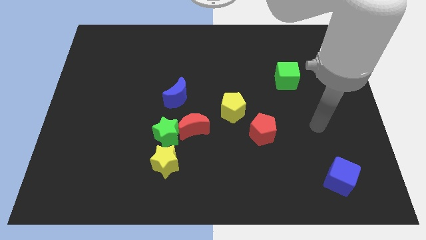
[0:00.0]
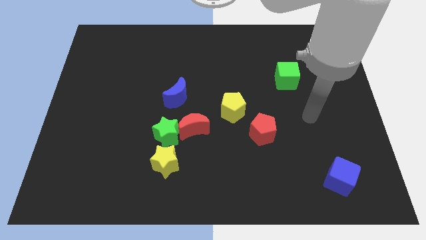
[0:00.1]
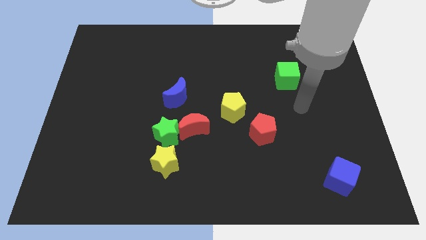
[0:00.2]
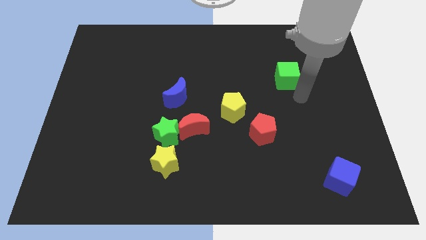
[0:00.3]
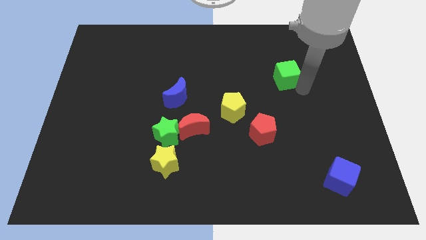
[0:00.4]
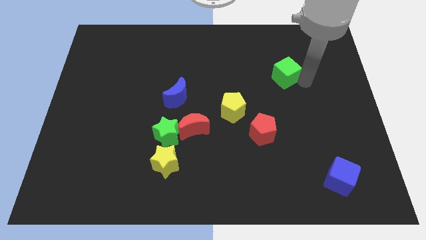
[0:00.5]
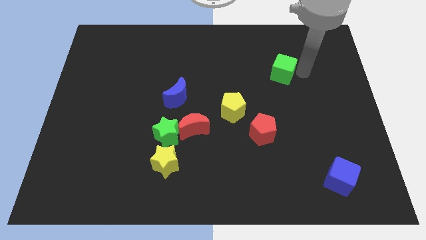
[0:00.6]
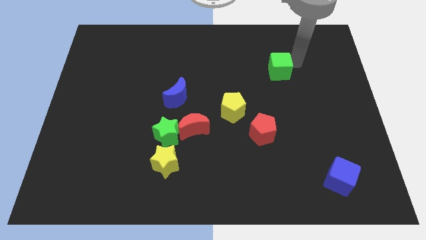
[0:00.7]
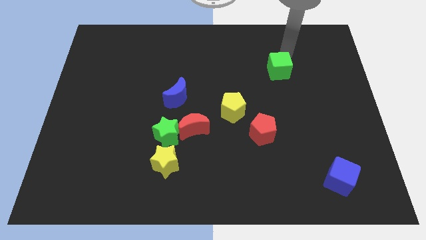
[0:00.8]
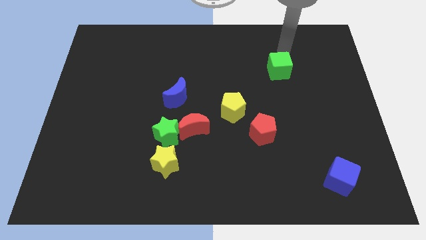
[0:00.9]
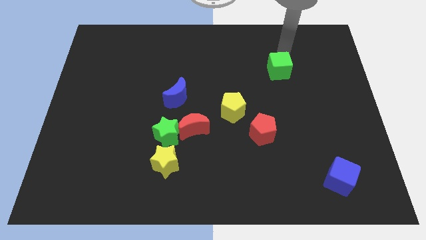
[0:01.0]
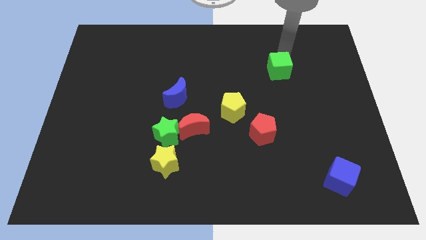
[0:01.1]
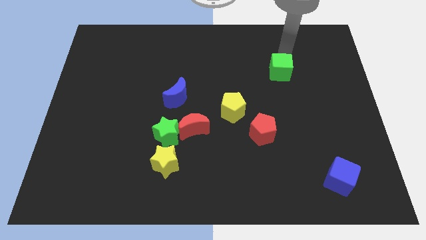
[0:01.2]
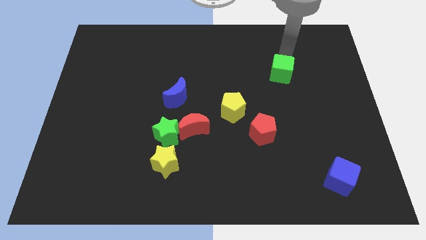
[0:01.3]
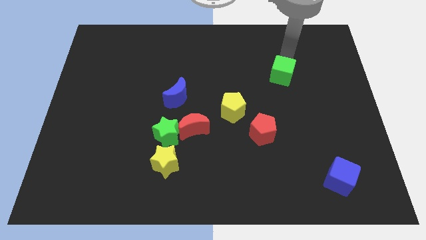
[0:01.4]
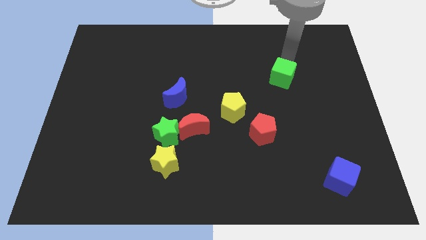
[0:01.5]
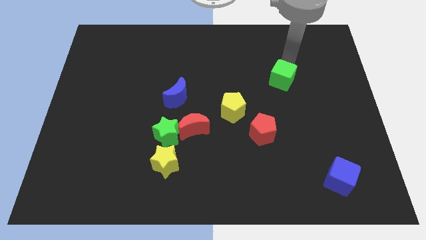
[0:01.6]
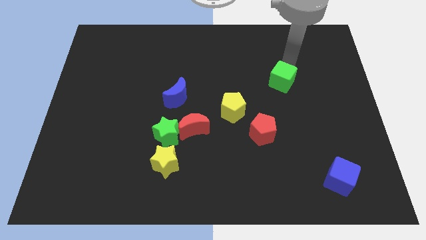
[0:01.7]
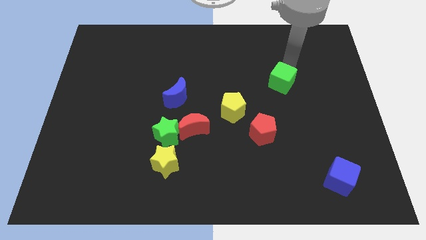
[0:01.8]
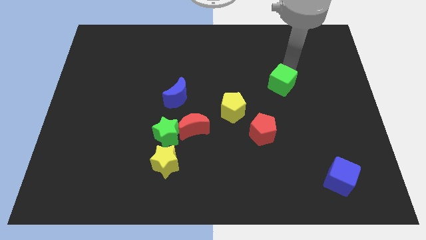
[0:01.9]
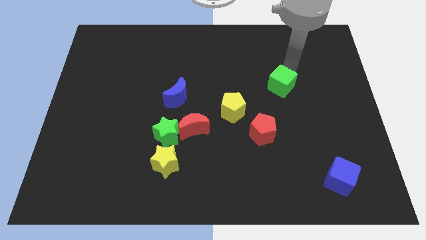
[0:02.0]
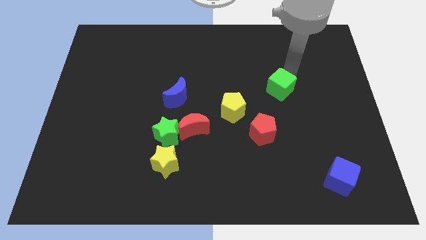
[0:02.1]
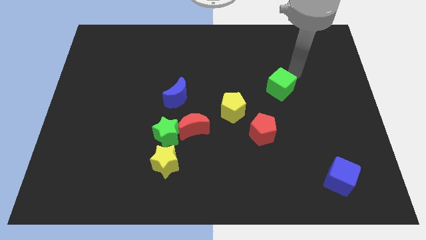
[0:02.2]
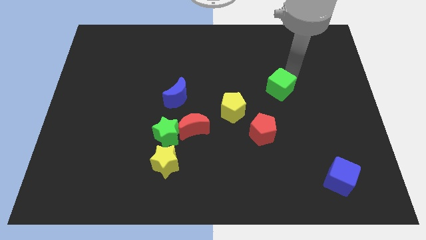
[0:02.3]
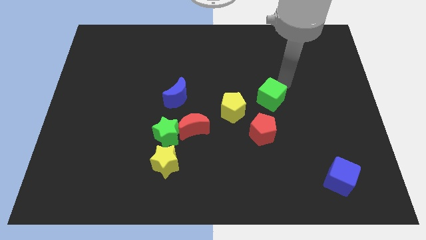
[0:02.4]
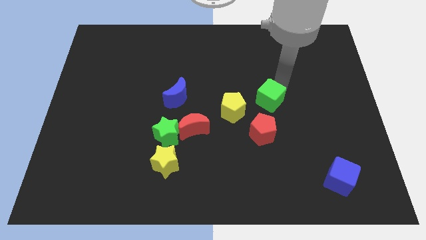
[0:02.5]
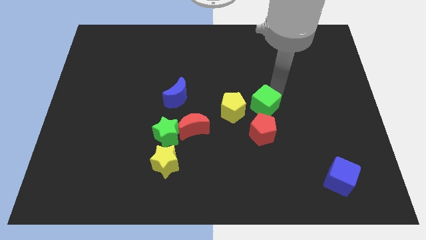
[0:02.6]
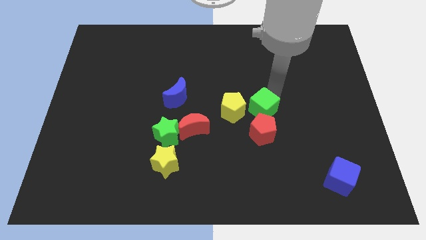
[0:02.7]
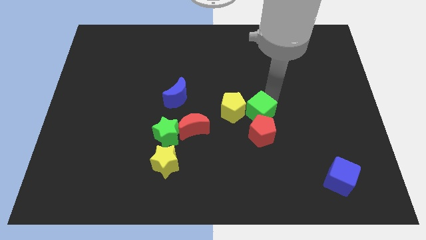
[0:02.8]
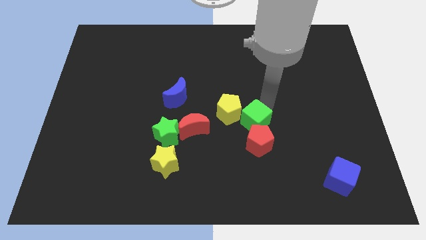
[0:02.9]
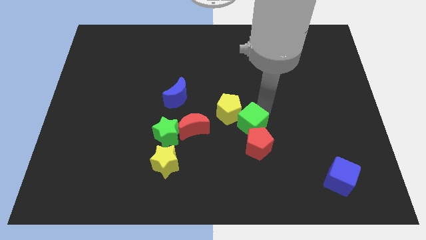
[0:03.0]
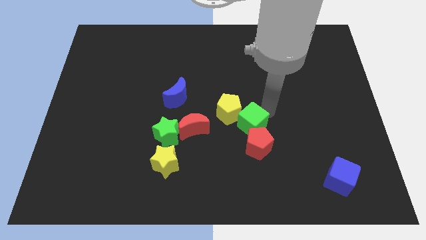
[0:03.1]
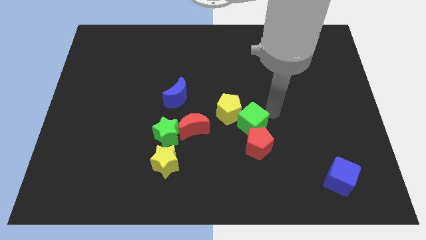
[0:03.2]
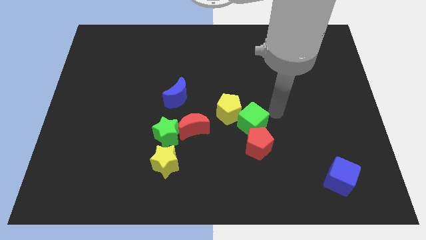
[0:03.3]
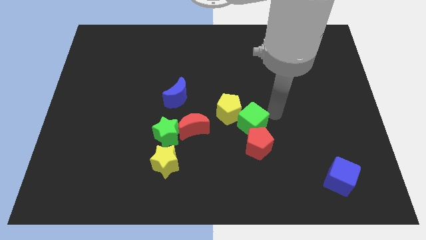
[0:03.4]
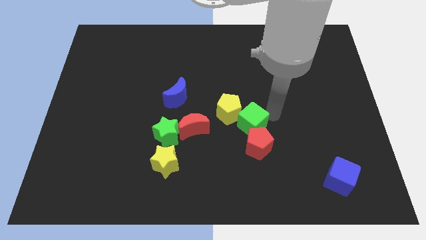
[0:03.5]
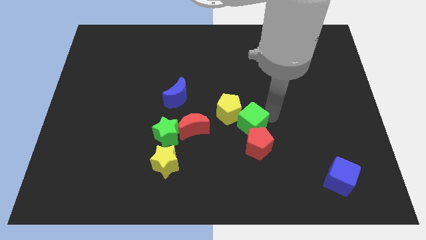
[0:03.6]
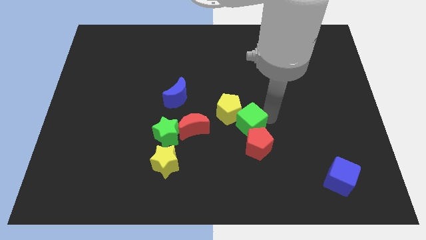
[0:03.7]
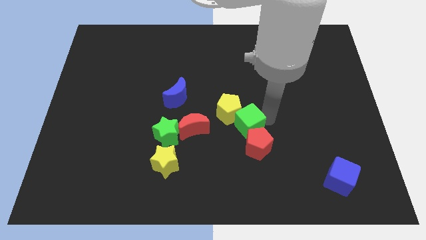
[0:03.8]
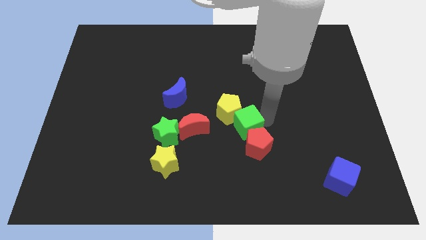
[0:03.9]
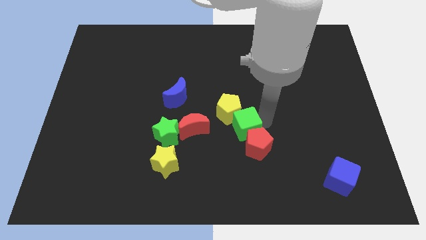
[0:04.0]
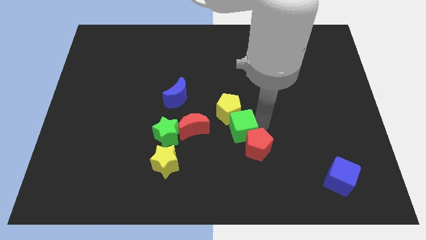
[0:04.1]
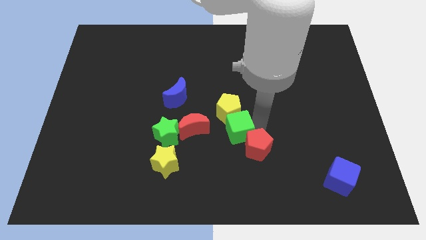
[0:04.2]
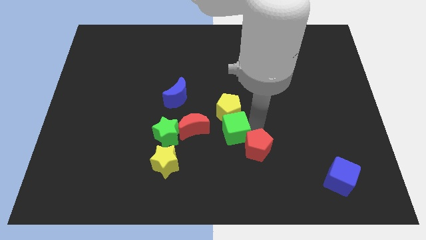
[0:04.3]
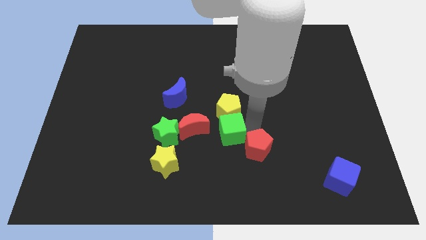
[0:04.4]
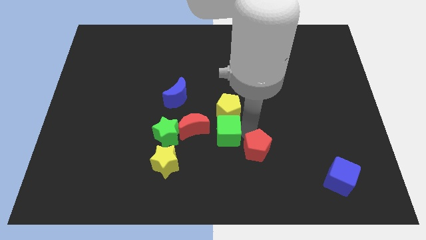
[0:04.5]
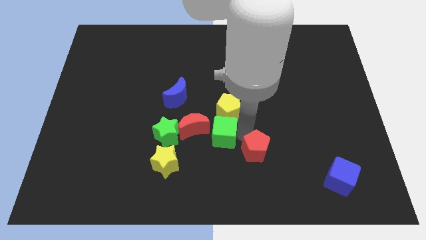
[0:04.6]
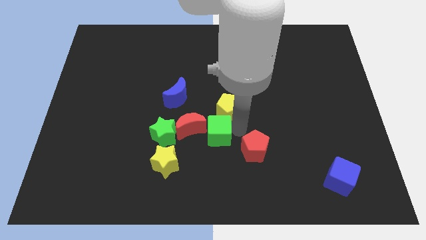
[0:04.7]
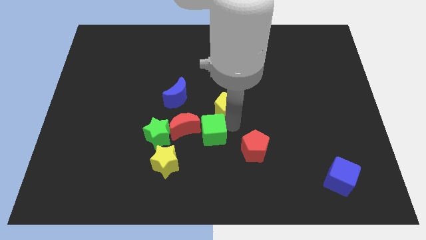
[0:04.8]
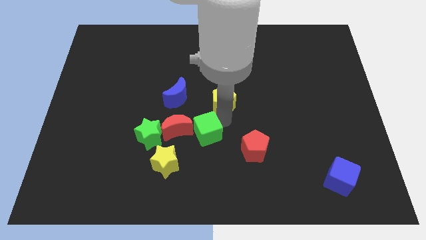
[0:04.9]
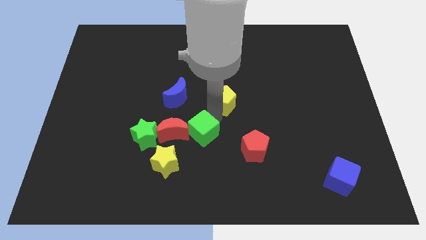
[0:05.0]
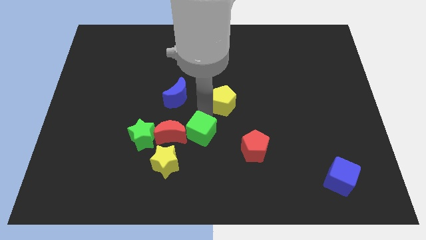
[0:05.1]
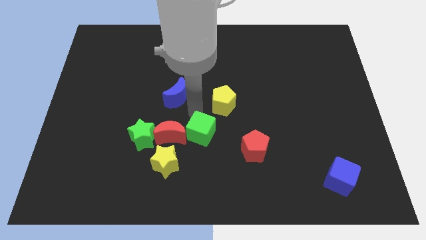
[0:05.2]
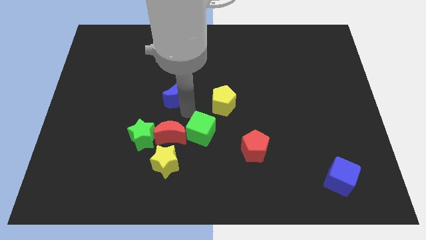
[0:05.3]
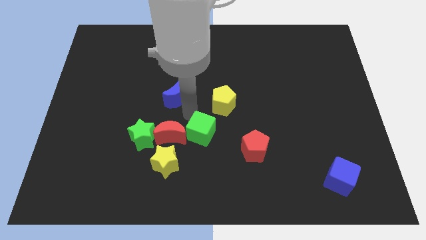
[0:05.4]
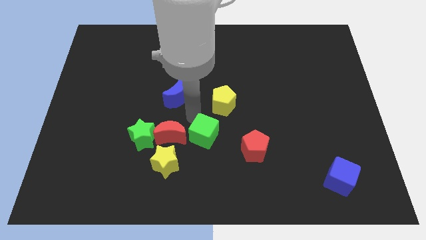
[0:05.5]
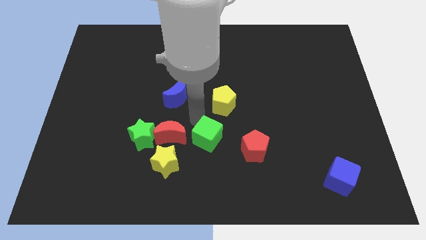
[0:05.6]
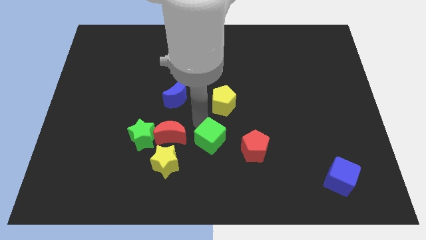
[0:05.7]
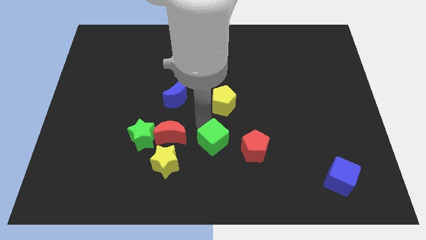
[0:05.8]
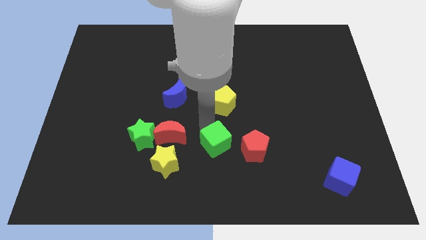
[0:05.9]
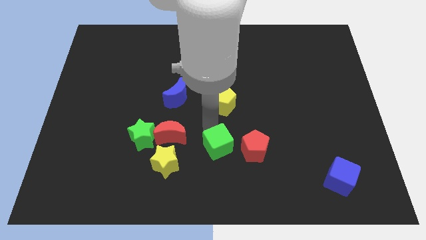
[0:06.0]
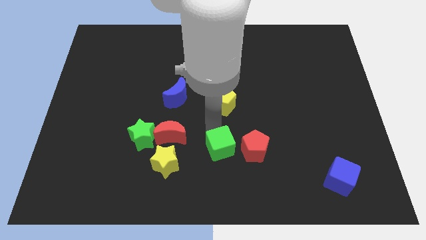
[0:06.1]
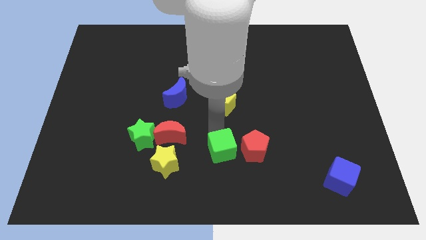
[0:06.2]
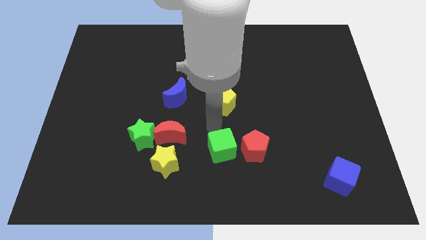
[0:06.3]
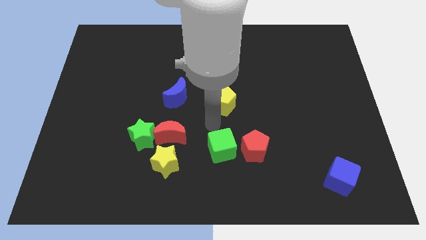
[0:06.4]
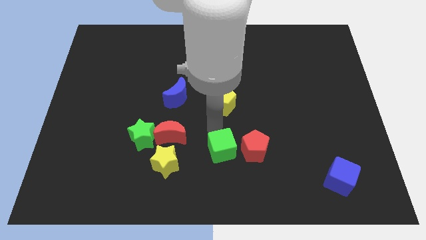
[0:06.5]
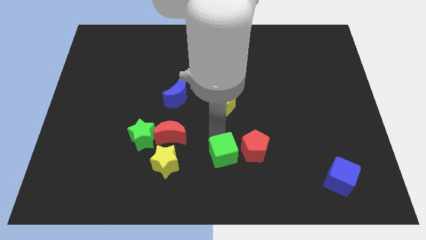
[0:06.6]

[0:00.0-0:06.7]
put the green cube diagonally down and to the left of the red pentagon

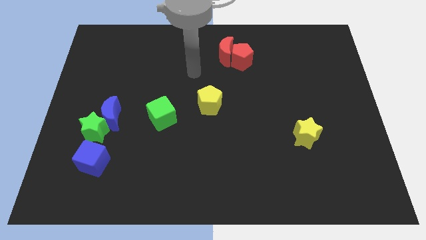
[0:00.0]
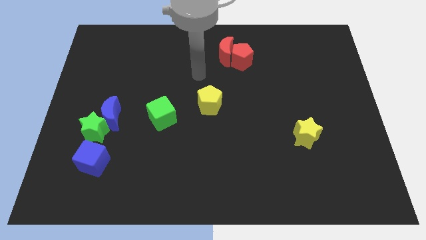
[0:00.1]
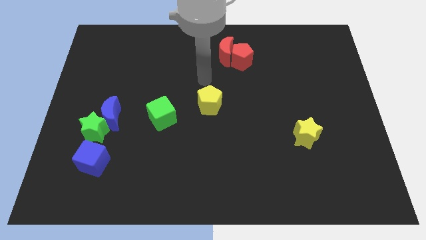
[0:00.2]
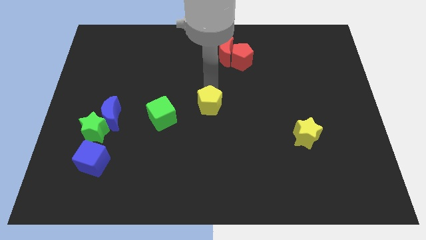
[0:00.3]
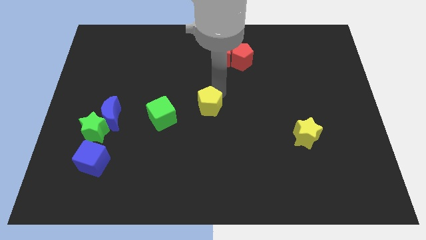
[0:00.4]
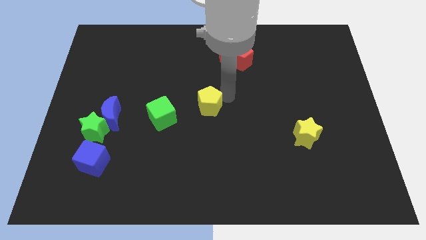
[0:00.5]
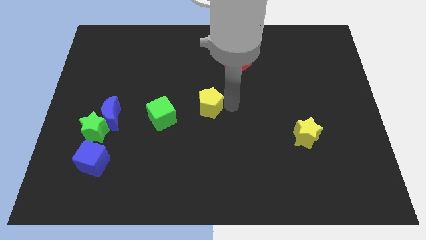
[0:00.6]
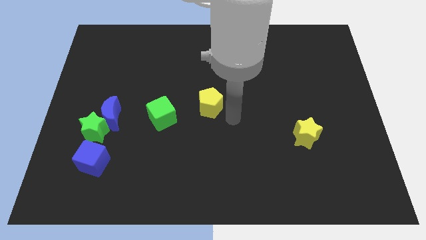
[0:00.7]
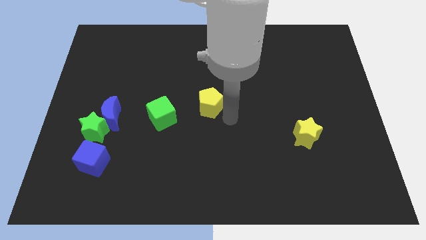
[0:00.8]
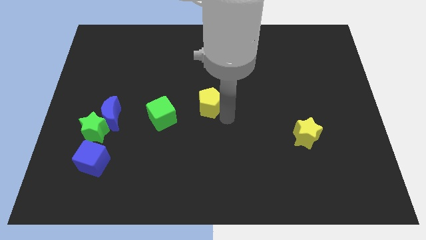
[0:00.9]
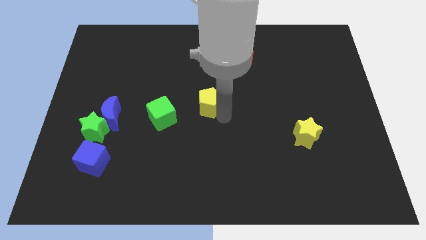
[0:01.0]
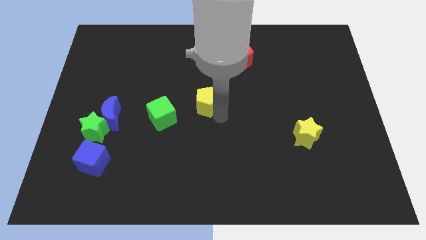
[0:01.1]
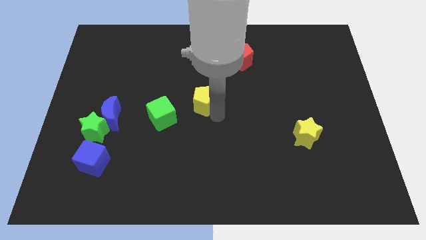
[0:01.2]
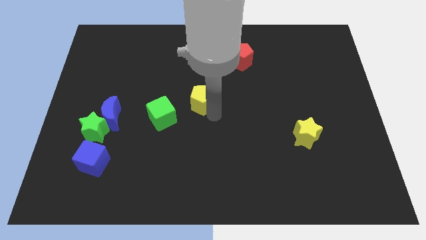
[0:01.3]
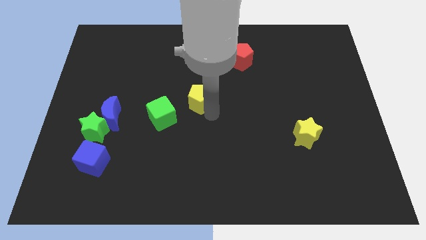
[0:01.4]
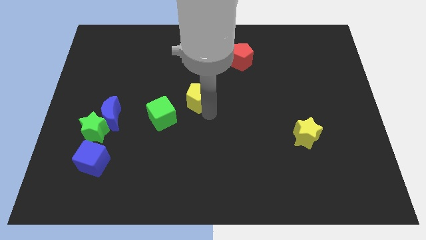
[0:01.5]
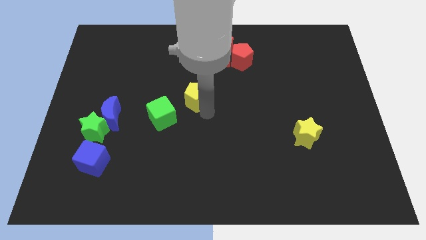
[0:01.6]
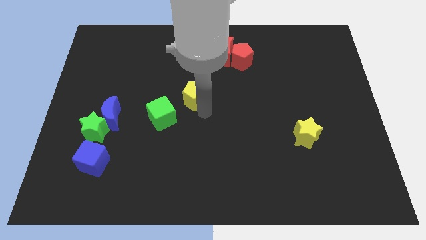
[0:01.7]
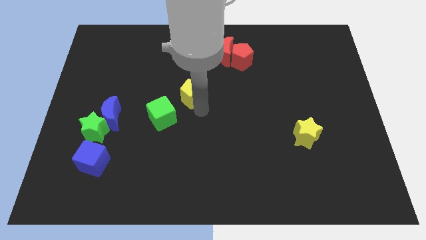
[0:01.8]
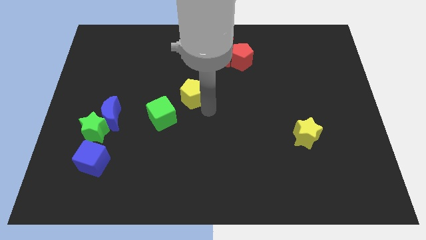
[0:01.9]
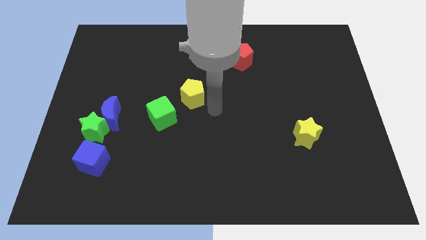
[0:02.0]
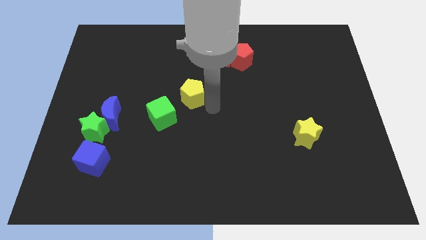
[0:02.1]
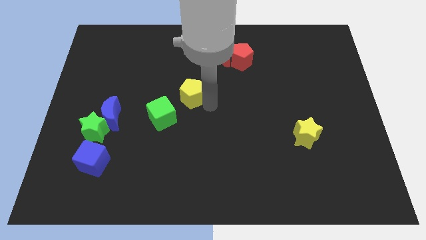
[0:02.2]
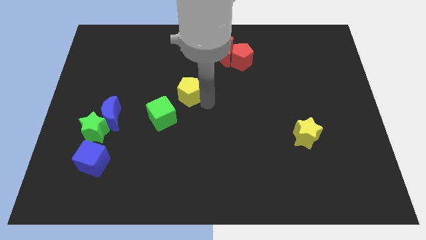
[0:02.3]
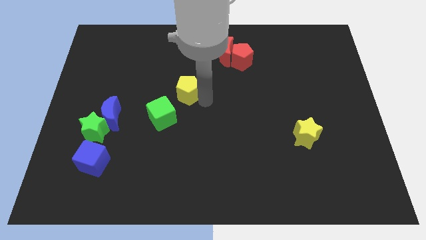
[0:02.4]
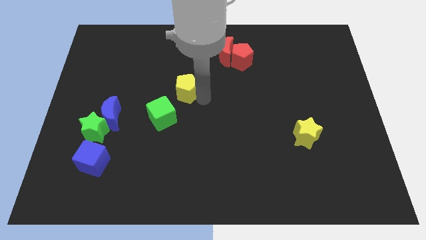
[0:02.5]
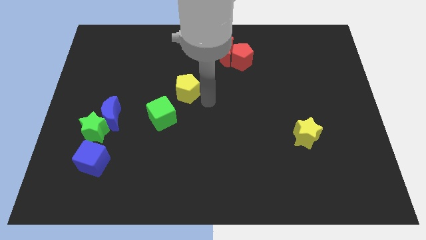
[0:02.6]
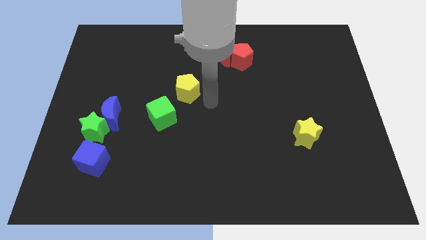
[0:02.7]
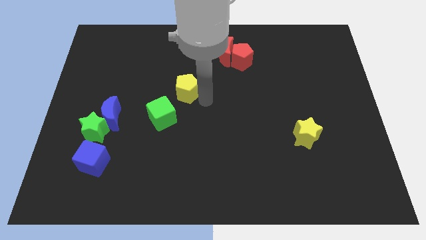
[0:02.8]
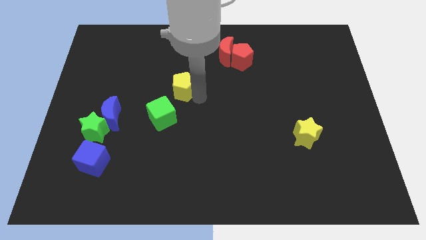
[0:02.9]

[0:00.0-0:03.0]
move the yellow pentagon to the top side of the green cube
